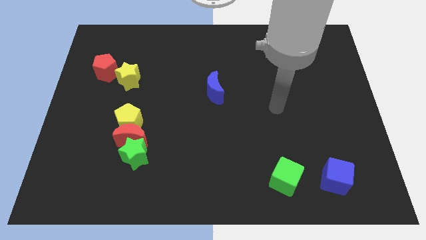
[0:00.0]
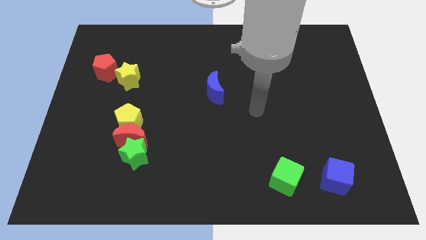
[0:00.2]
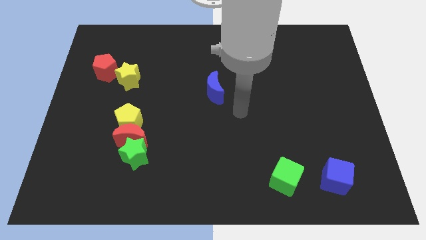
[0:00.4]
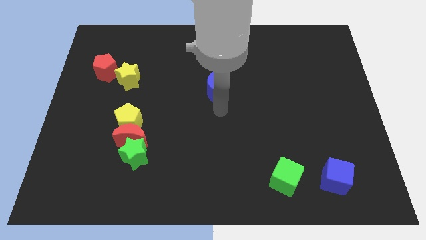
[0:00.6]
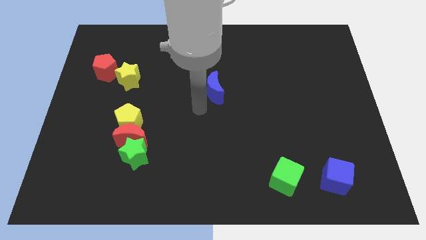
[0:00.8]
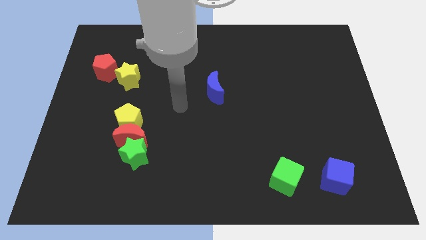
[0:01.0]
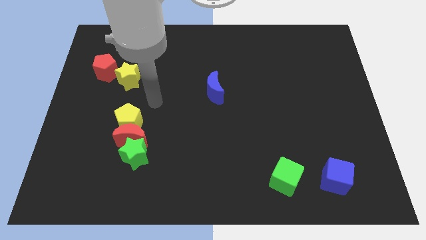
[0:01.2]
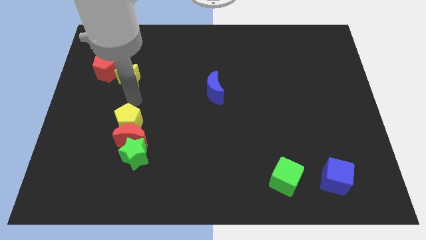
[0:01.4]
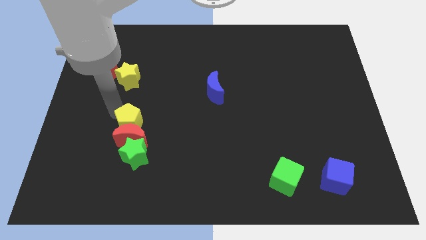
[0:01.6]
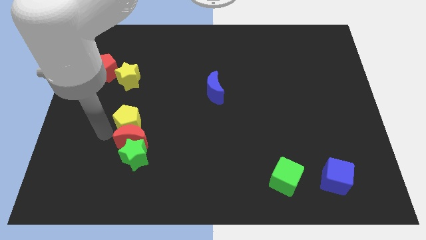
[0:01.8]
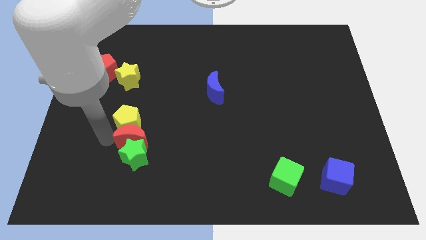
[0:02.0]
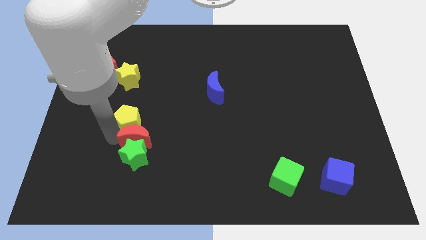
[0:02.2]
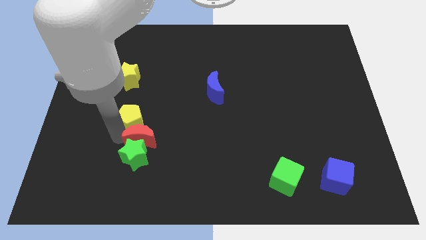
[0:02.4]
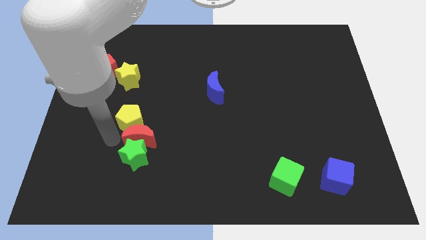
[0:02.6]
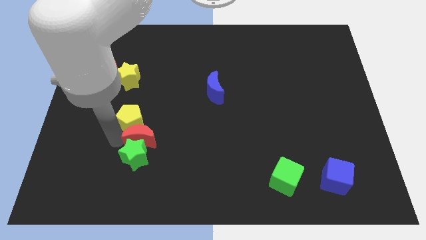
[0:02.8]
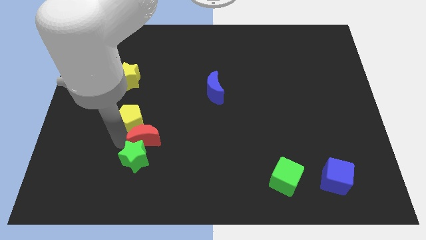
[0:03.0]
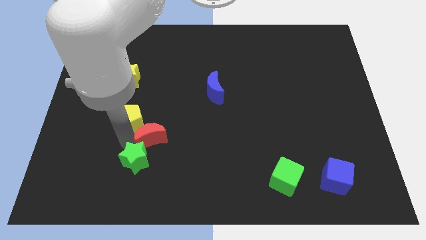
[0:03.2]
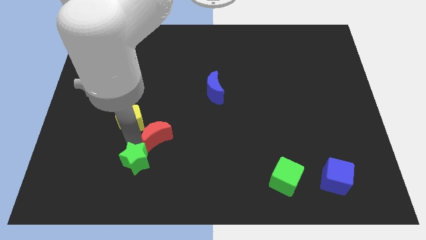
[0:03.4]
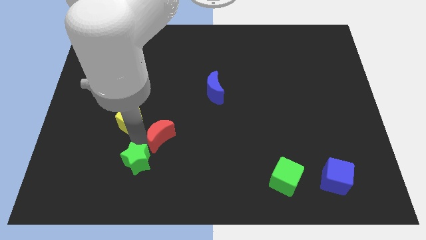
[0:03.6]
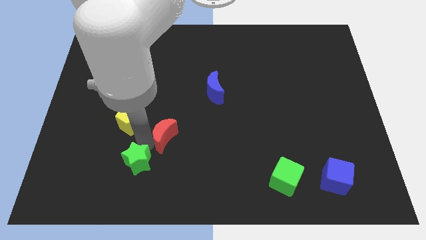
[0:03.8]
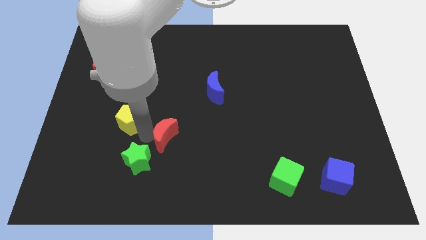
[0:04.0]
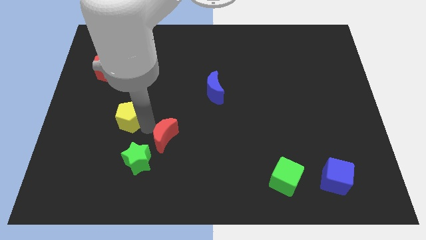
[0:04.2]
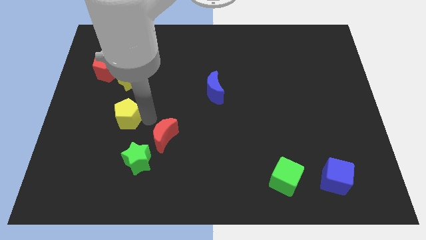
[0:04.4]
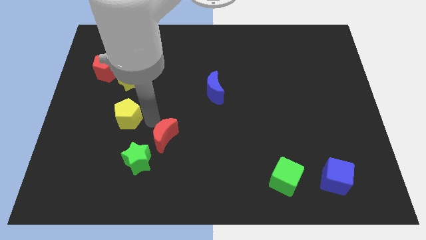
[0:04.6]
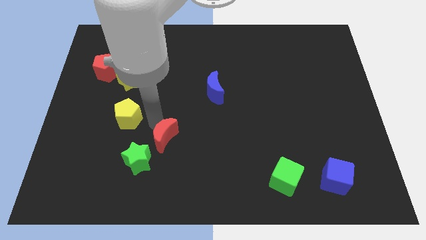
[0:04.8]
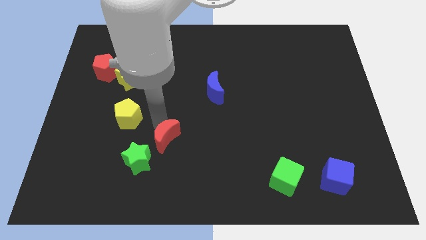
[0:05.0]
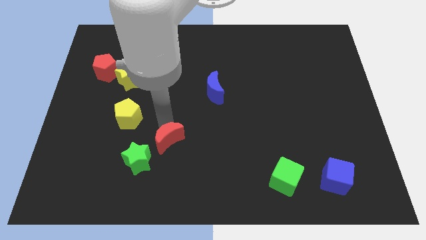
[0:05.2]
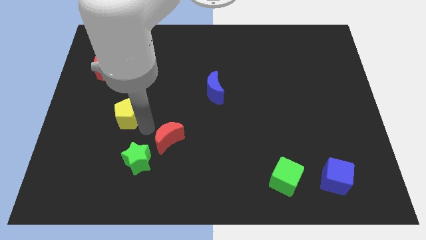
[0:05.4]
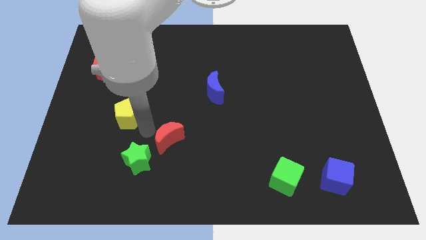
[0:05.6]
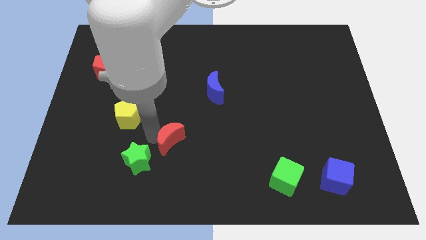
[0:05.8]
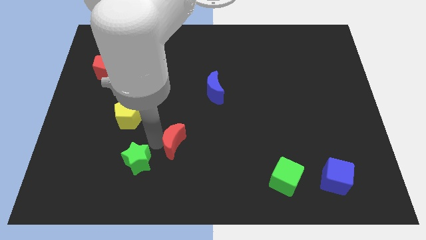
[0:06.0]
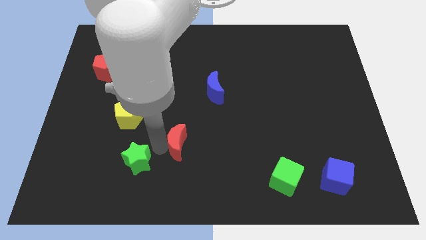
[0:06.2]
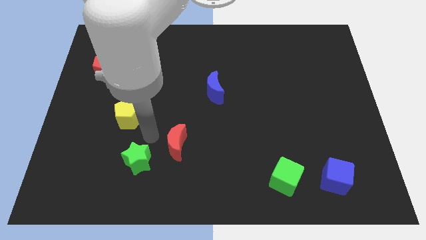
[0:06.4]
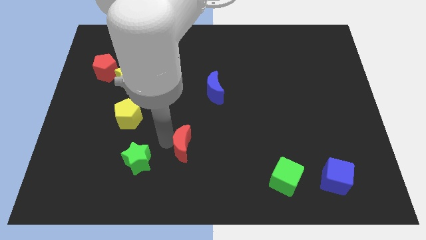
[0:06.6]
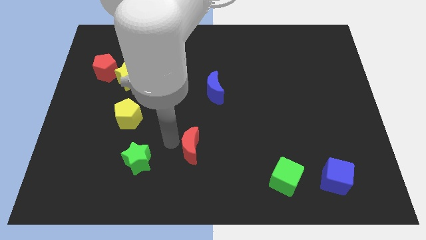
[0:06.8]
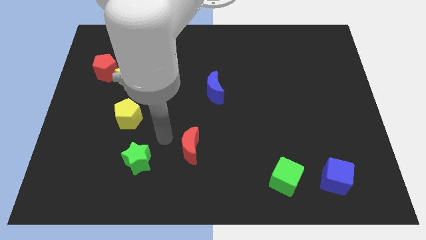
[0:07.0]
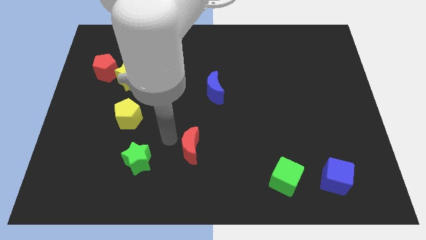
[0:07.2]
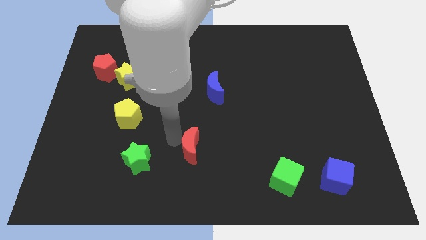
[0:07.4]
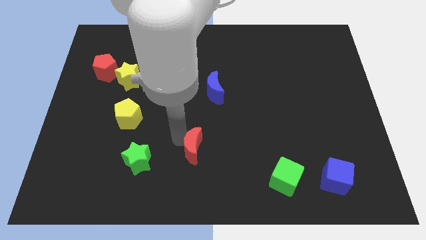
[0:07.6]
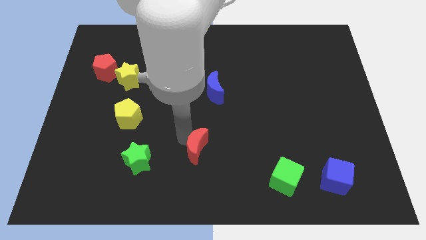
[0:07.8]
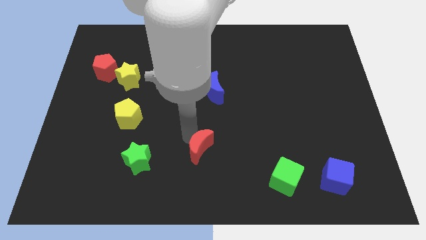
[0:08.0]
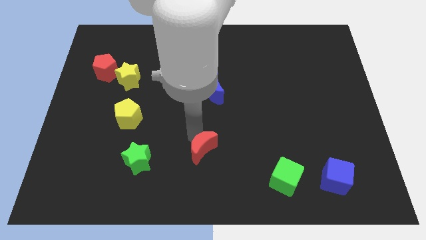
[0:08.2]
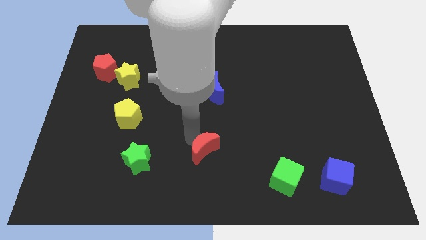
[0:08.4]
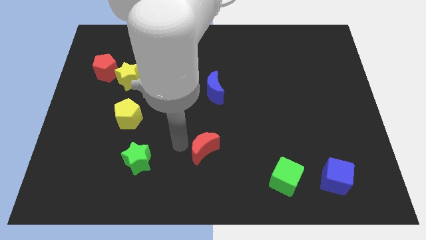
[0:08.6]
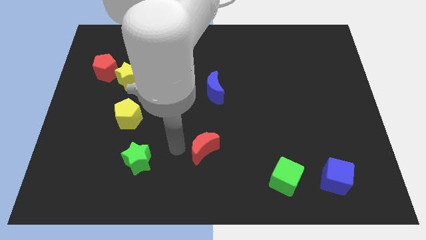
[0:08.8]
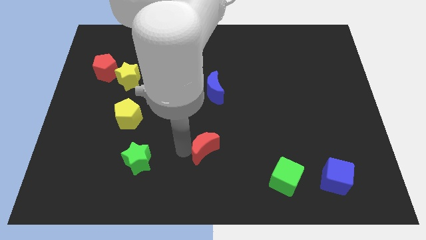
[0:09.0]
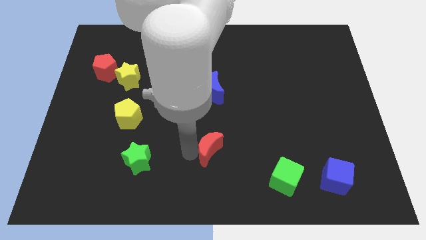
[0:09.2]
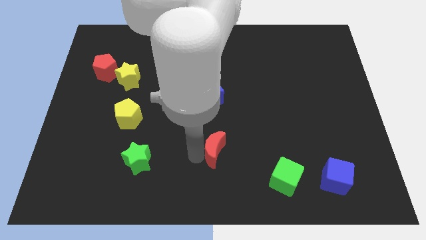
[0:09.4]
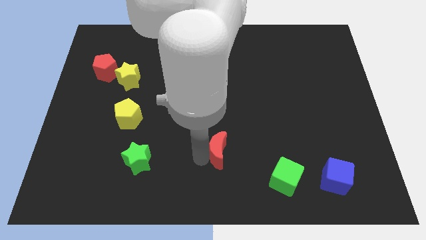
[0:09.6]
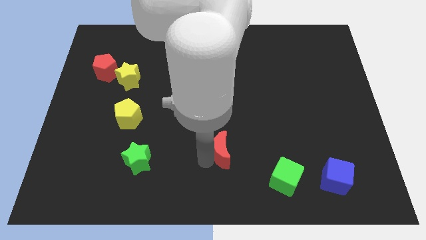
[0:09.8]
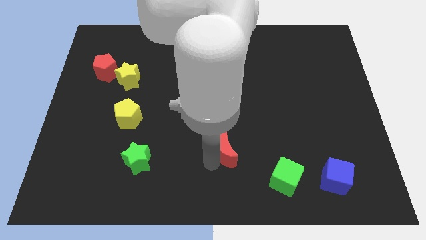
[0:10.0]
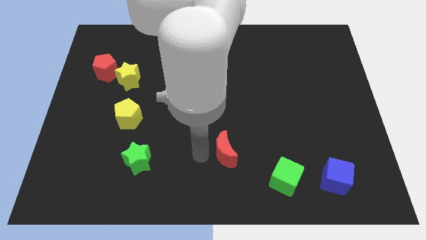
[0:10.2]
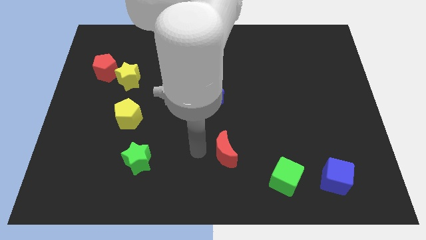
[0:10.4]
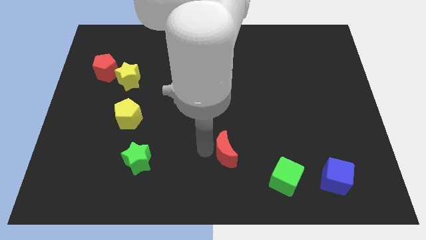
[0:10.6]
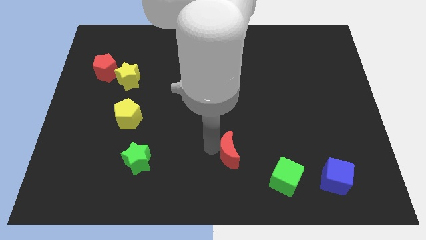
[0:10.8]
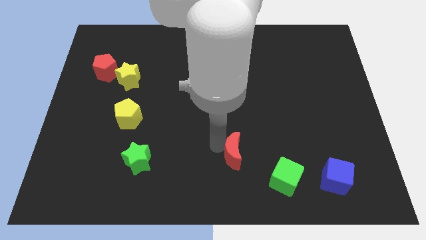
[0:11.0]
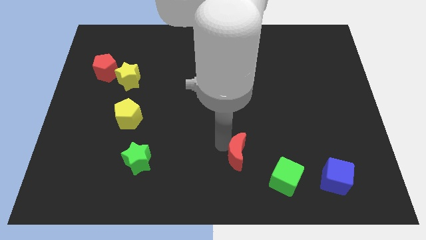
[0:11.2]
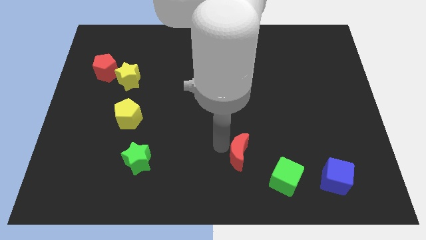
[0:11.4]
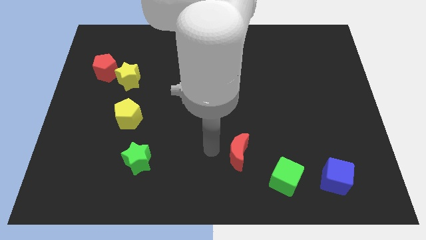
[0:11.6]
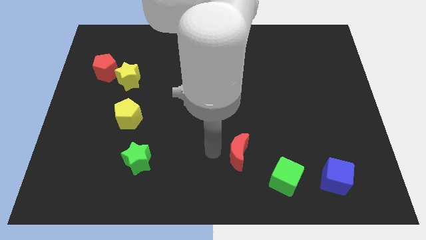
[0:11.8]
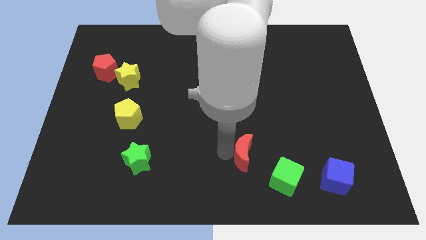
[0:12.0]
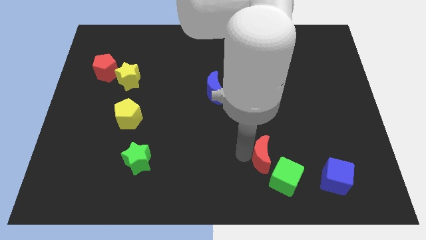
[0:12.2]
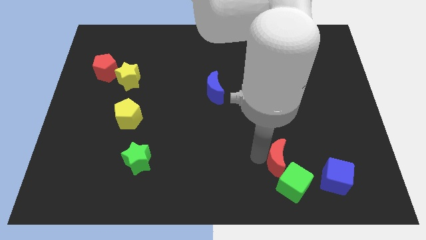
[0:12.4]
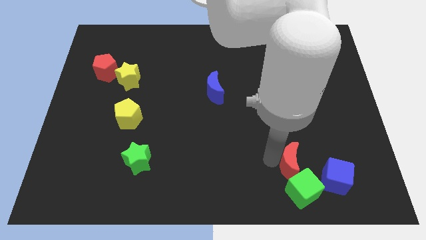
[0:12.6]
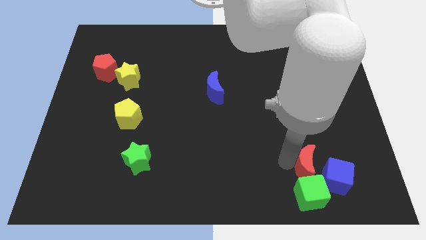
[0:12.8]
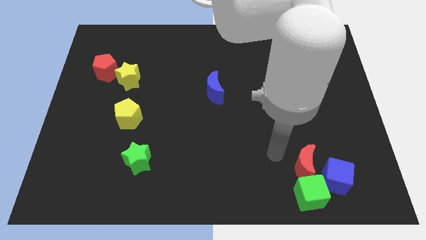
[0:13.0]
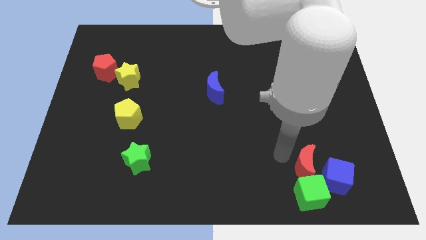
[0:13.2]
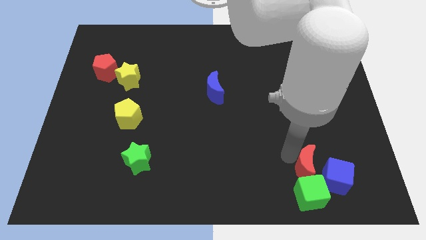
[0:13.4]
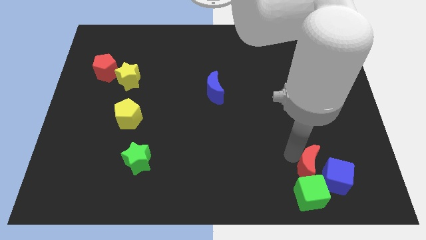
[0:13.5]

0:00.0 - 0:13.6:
put the red moon to the blue cube

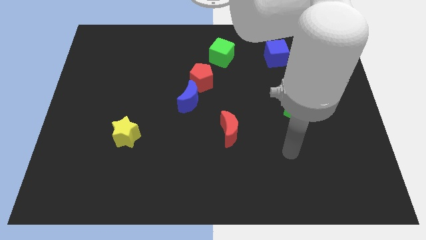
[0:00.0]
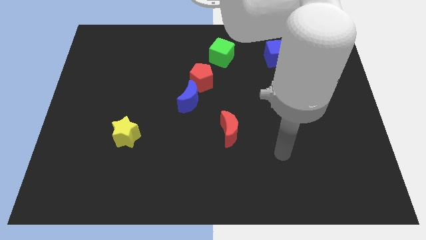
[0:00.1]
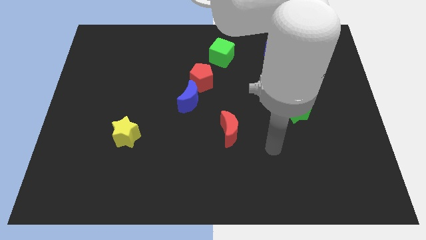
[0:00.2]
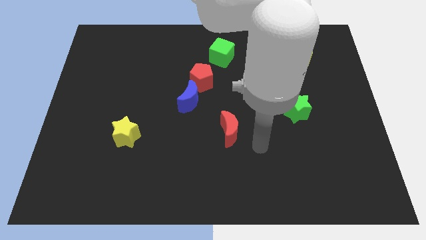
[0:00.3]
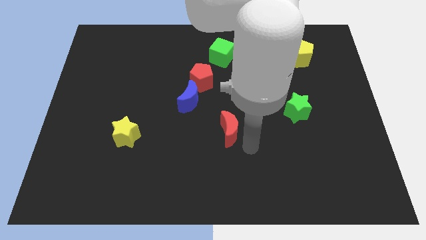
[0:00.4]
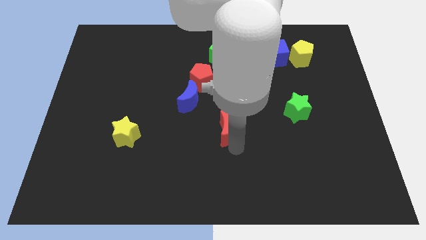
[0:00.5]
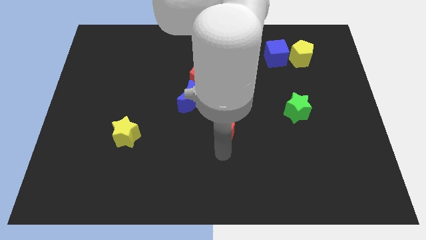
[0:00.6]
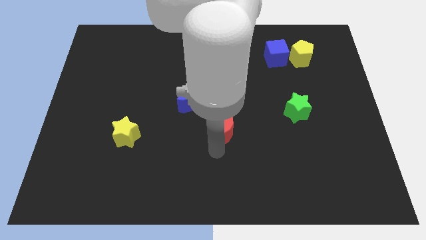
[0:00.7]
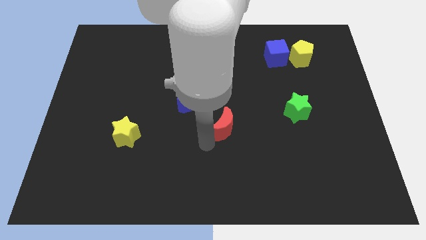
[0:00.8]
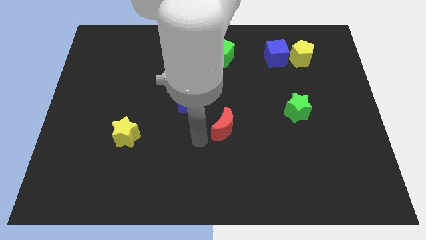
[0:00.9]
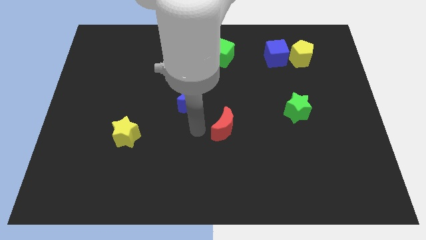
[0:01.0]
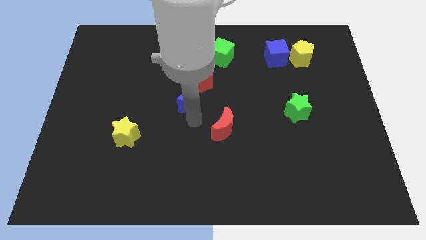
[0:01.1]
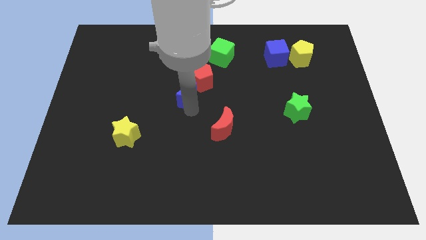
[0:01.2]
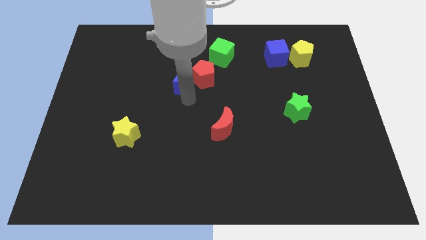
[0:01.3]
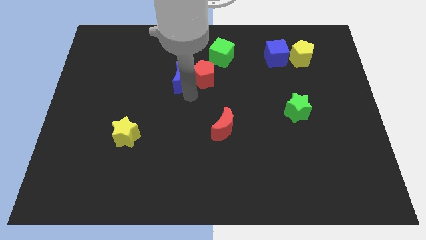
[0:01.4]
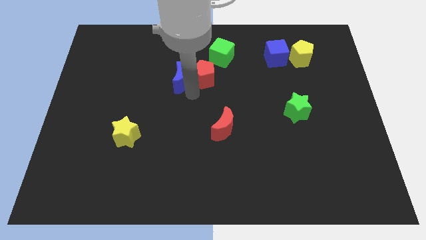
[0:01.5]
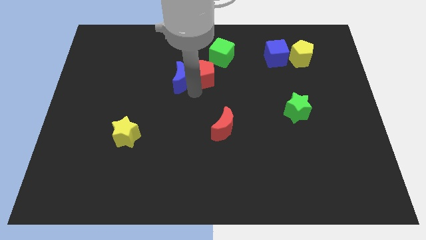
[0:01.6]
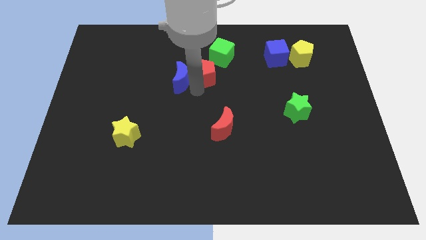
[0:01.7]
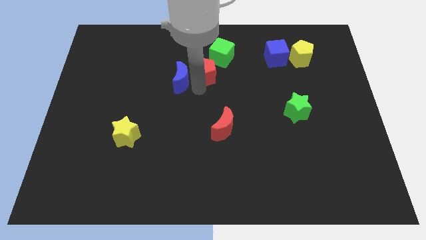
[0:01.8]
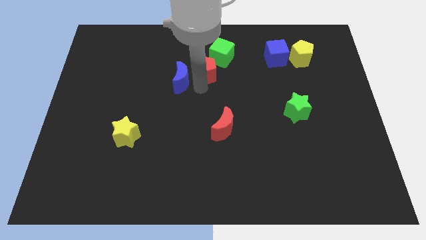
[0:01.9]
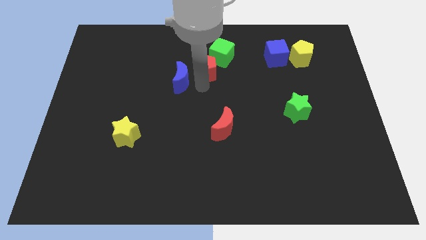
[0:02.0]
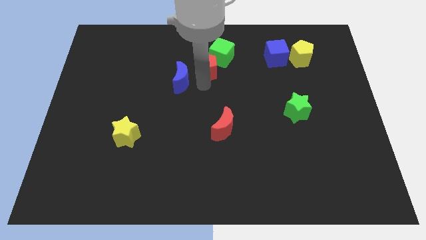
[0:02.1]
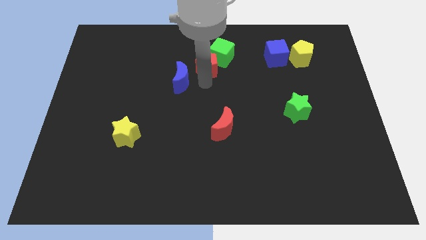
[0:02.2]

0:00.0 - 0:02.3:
slide the red pentagon towards the green cube
